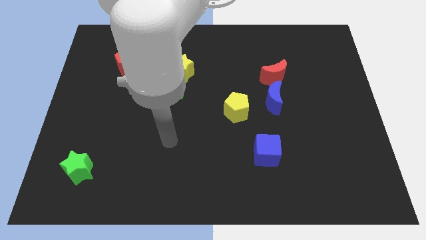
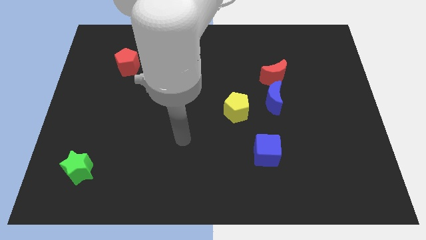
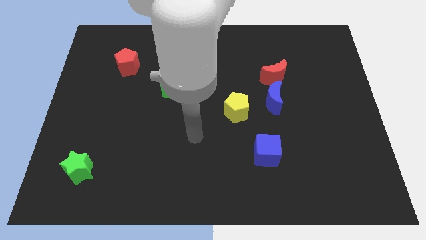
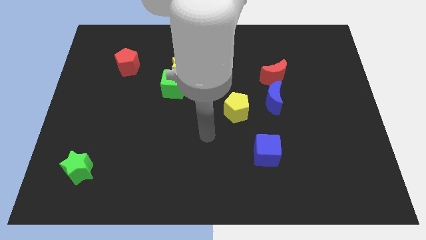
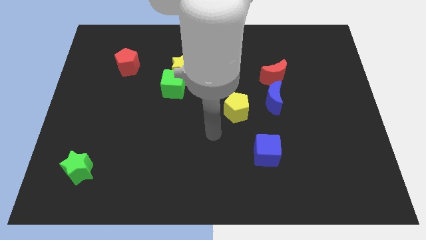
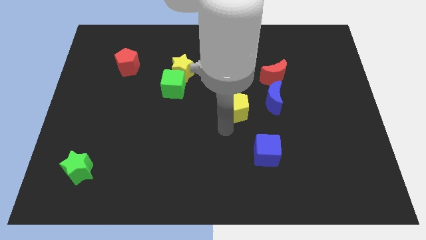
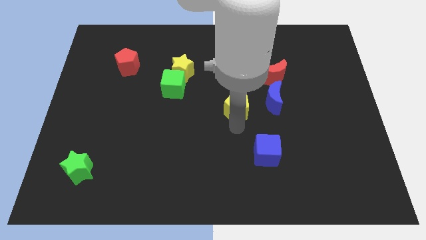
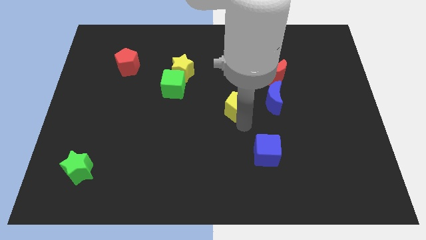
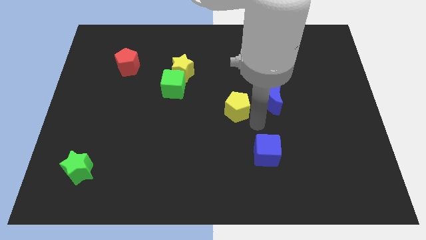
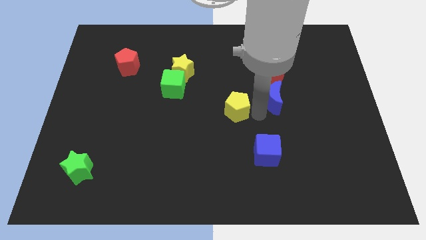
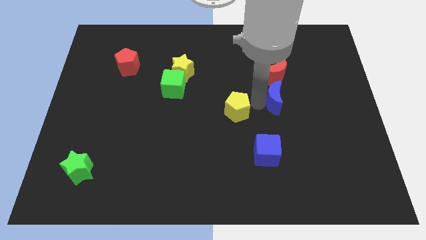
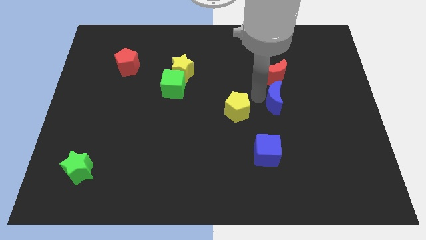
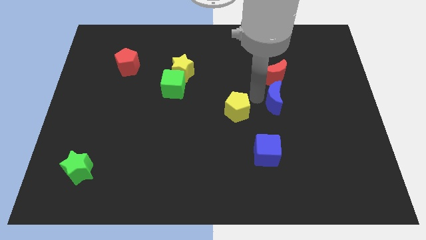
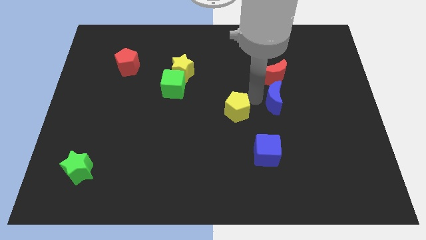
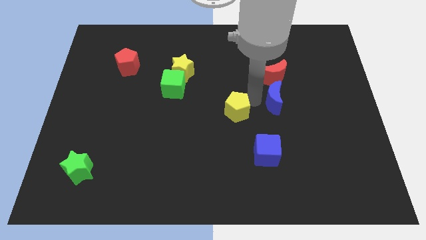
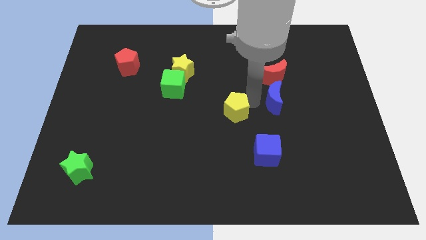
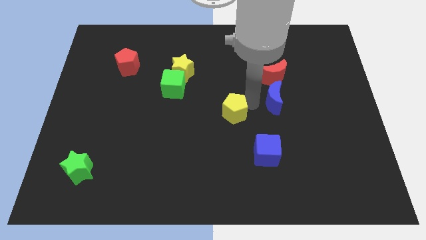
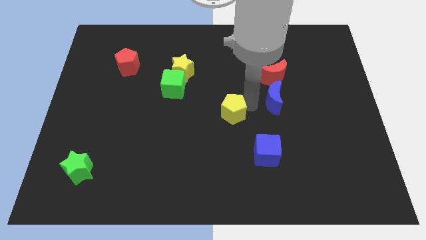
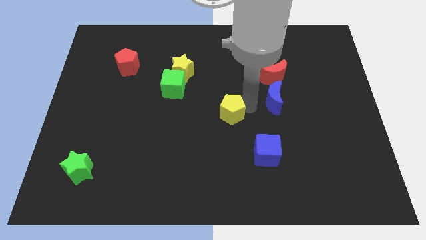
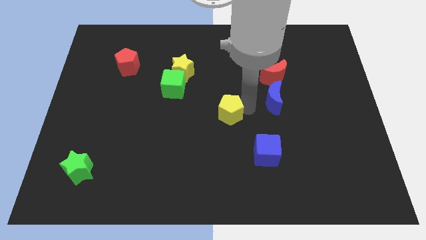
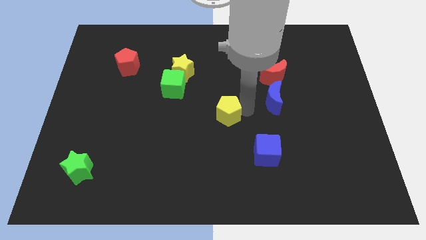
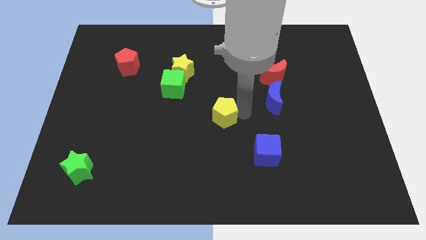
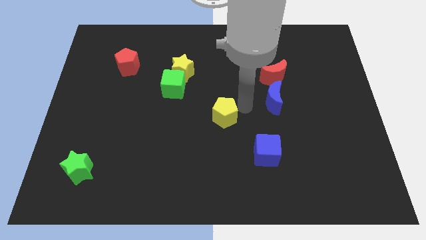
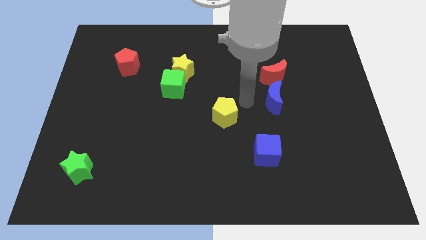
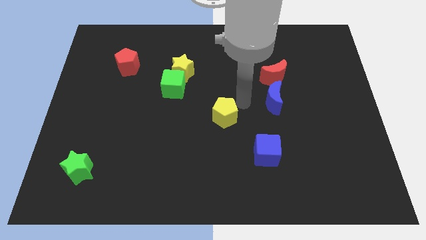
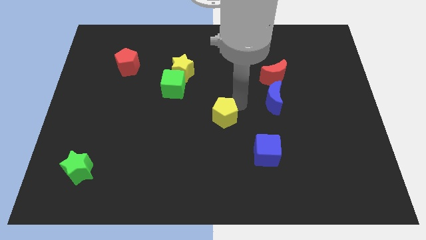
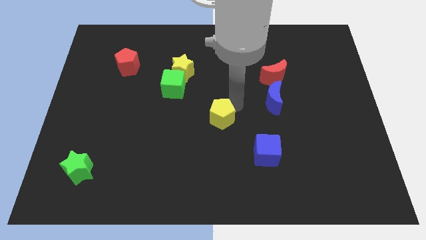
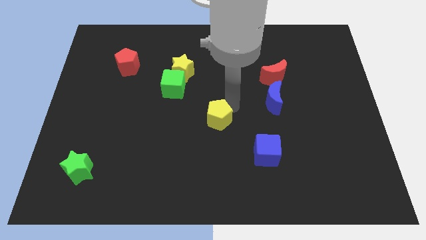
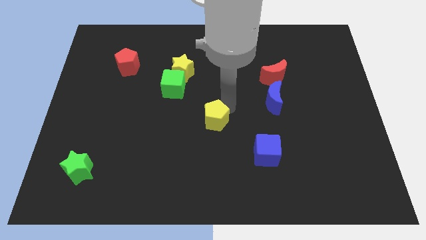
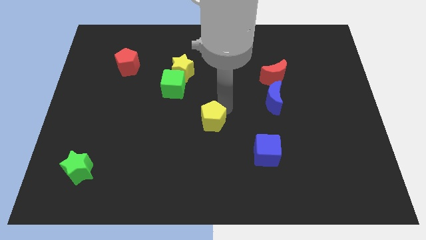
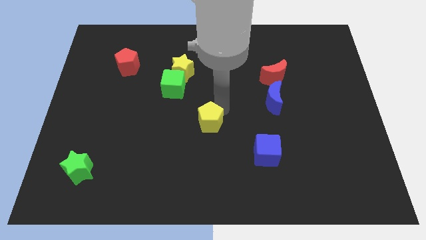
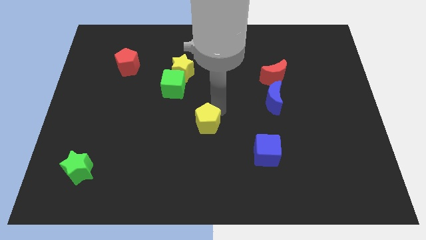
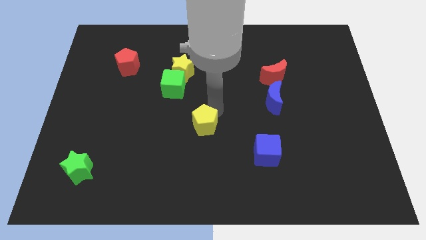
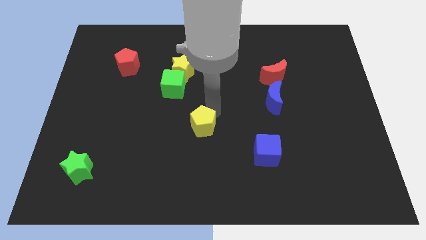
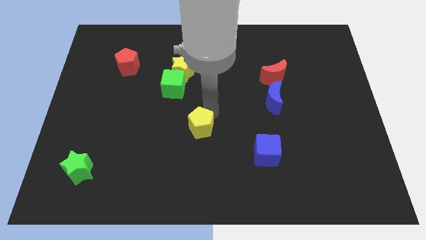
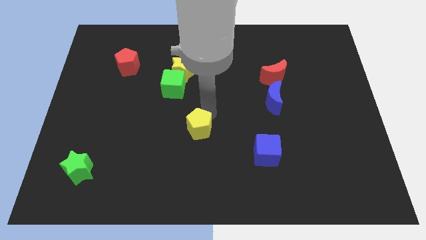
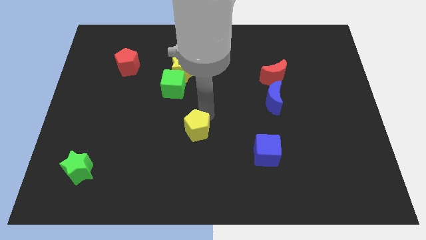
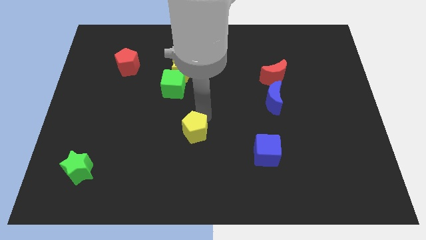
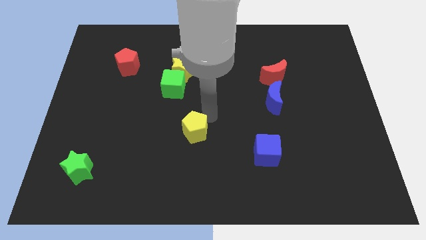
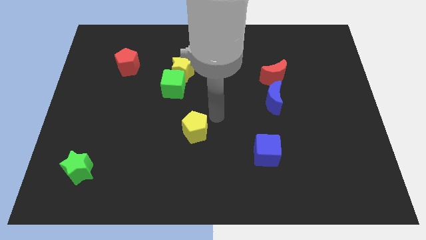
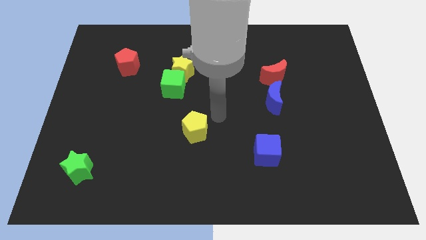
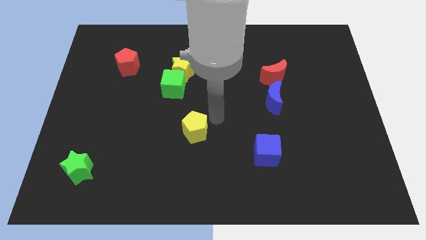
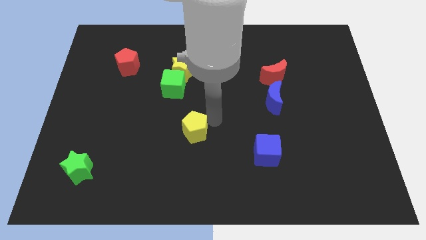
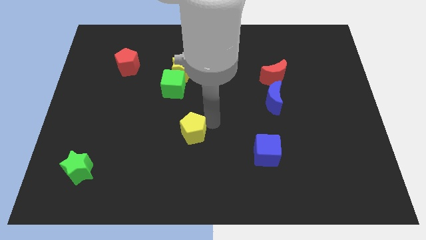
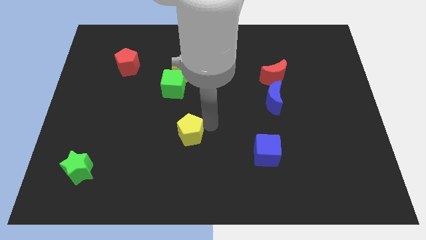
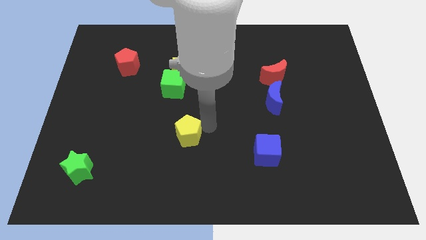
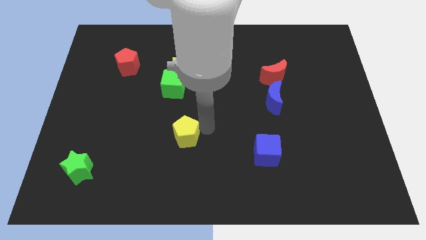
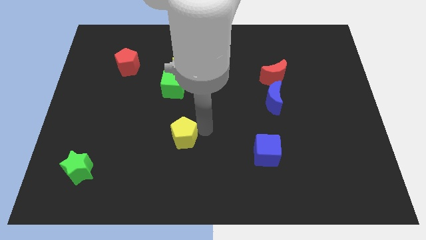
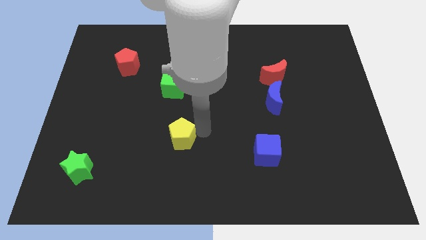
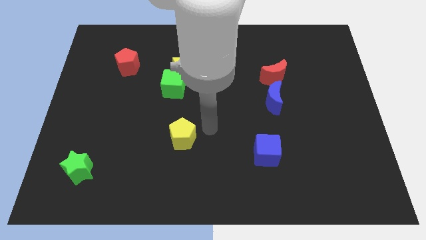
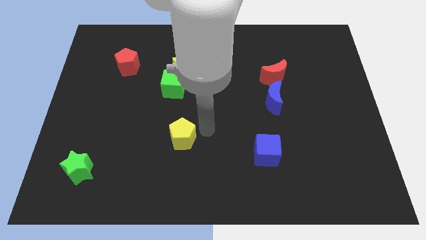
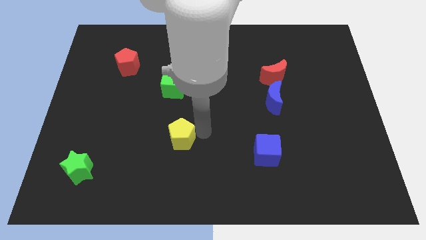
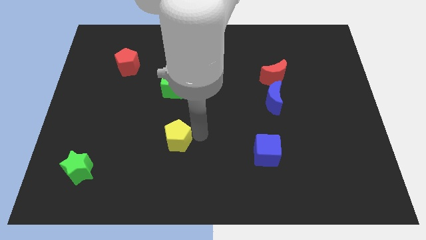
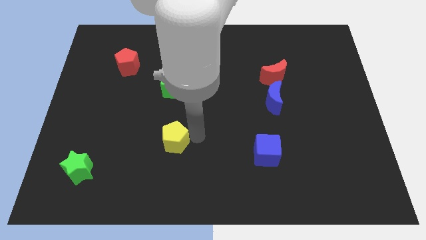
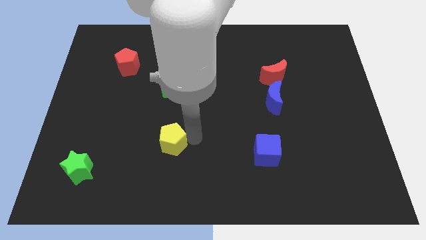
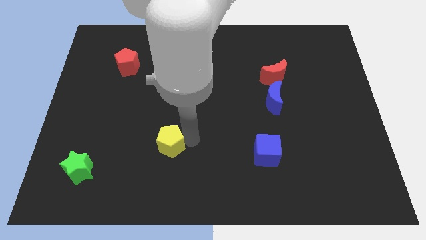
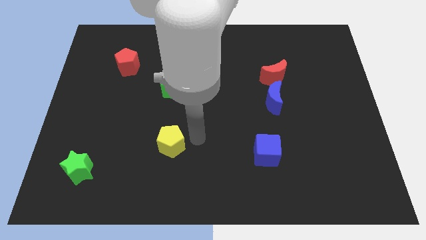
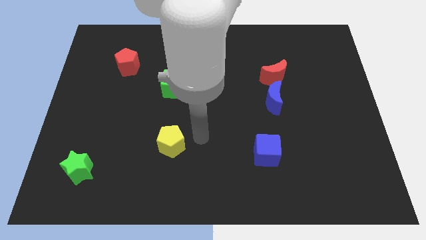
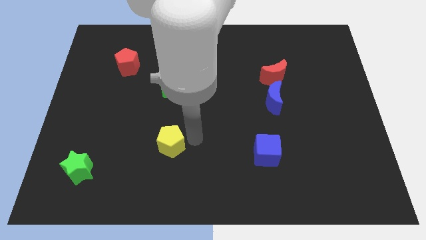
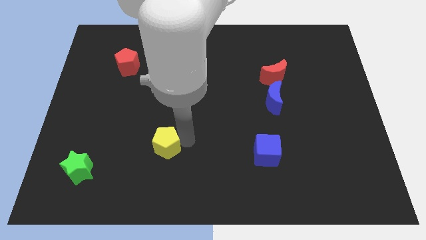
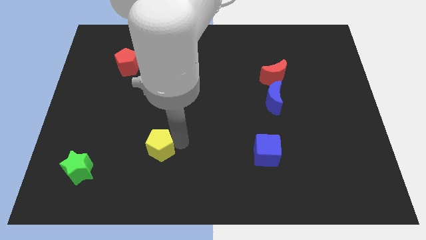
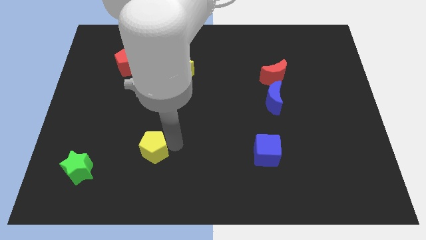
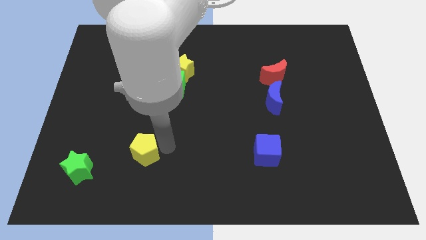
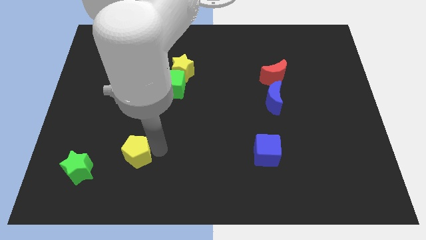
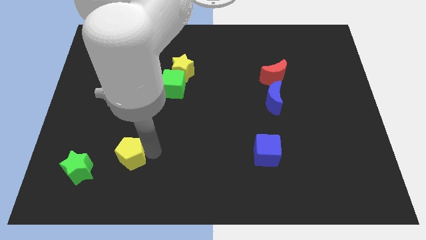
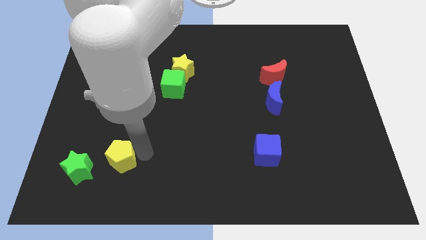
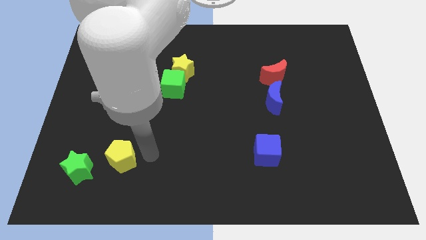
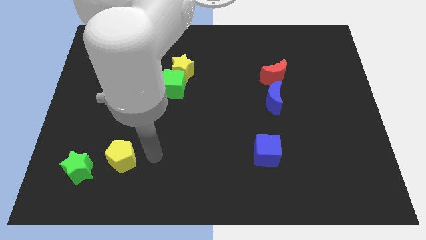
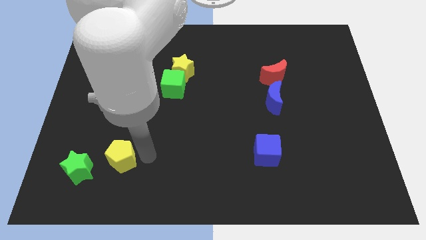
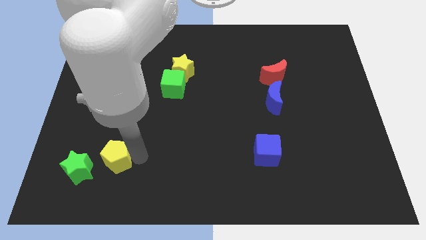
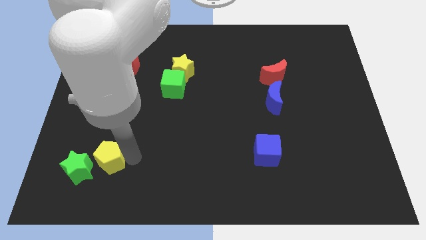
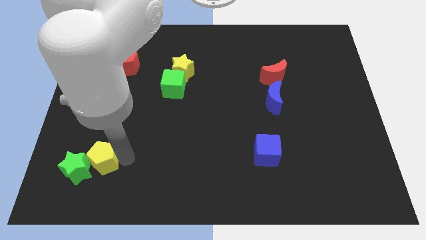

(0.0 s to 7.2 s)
push the yellow pentagon close to the green star

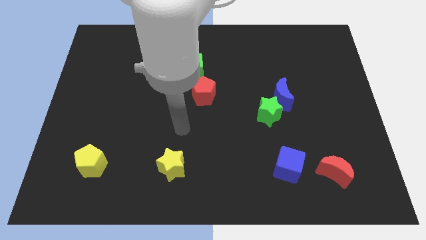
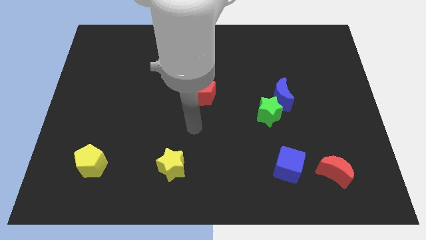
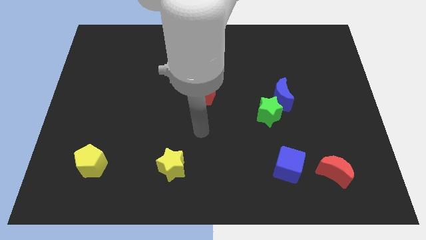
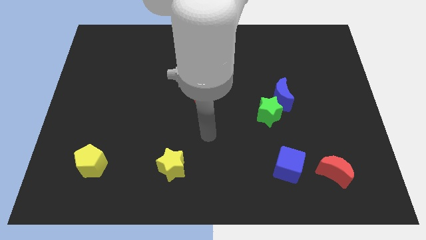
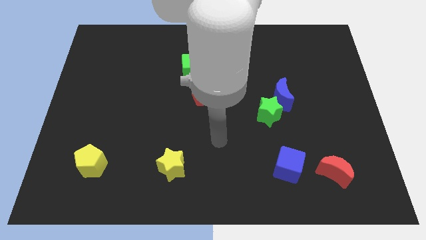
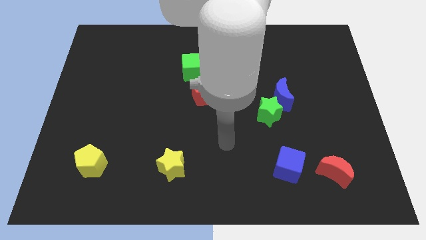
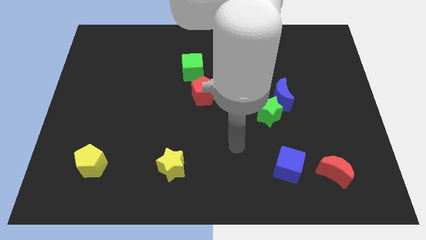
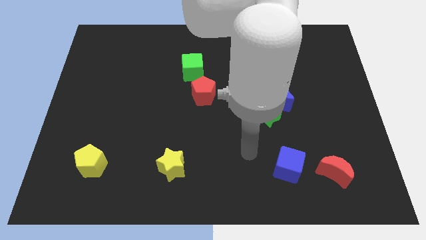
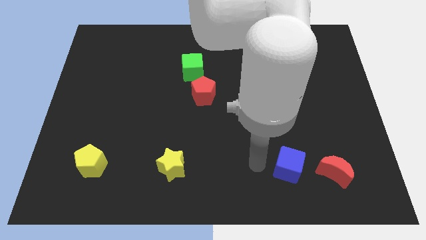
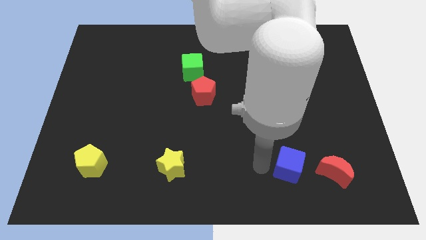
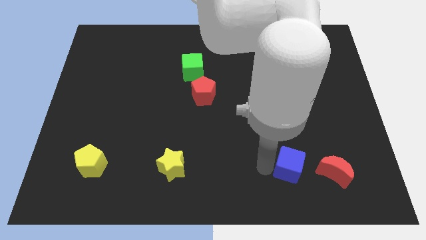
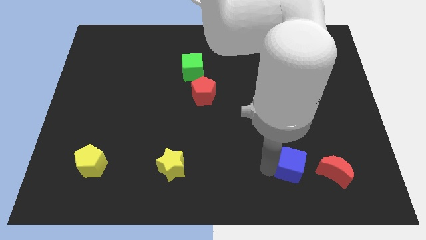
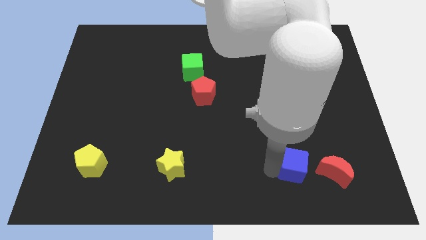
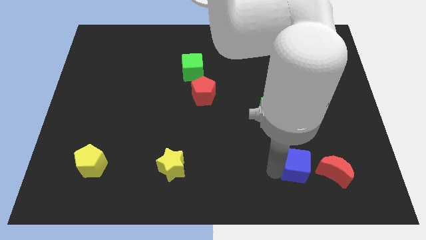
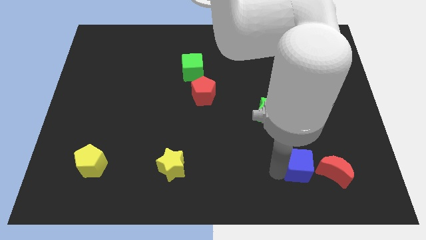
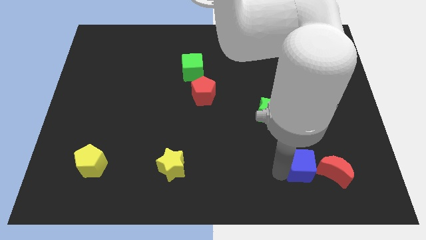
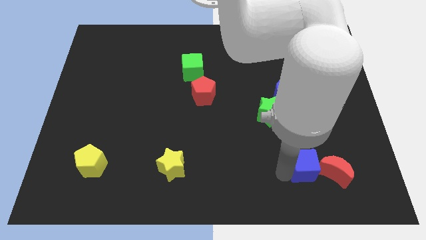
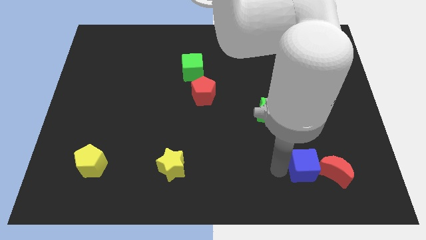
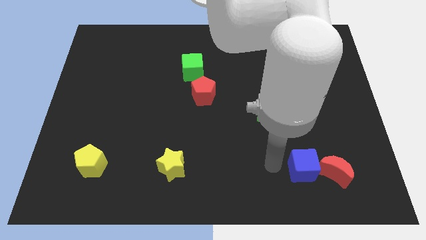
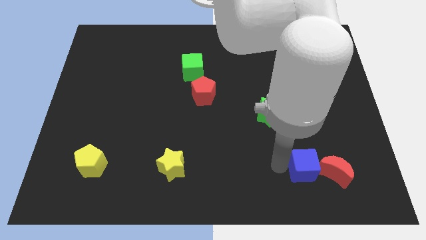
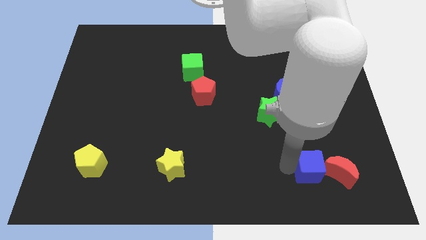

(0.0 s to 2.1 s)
slide the blue cube next to the red moon
